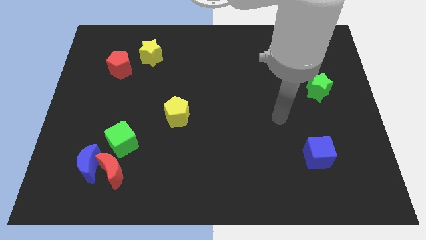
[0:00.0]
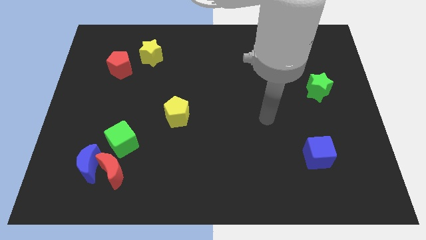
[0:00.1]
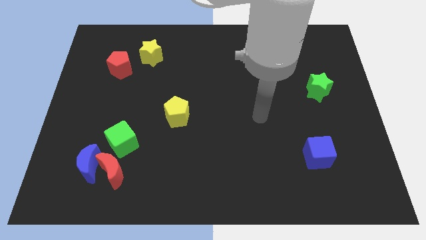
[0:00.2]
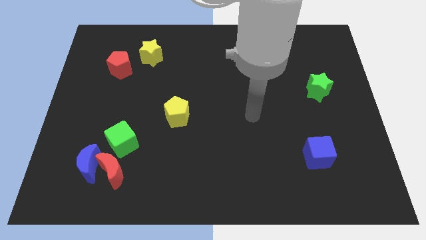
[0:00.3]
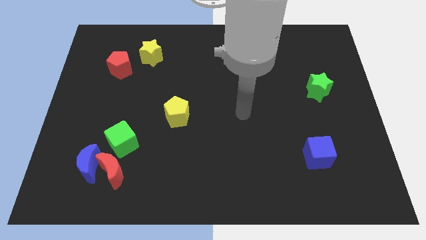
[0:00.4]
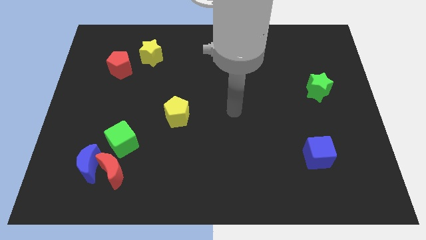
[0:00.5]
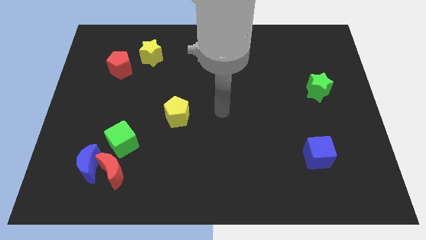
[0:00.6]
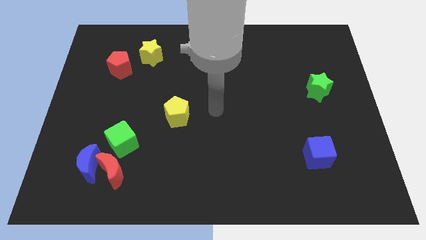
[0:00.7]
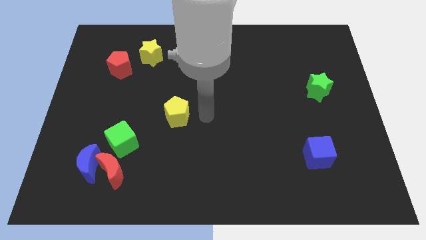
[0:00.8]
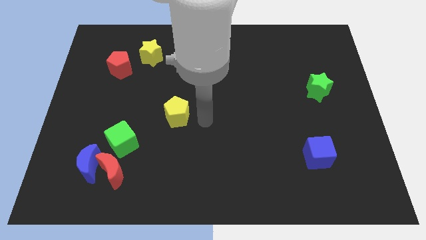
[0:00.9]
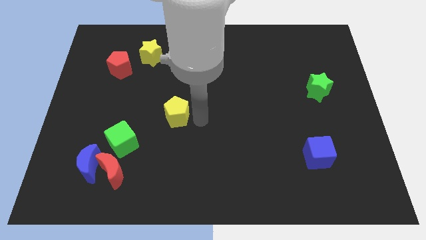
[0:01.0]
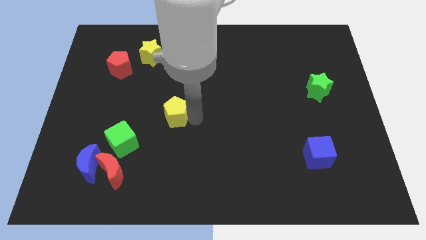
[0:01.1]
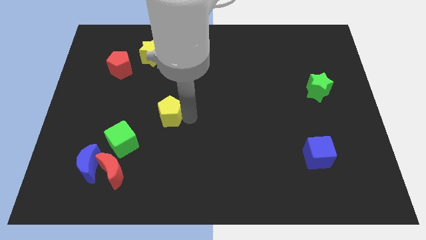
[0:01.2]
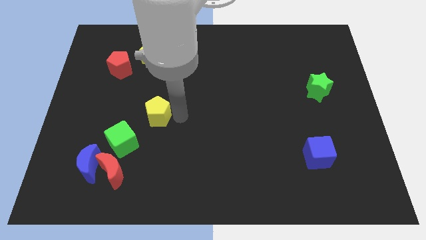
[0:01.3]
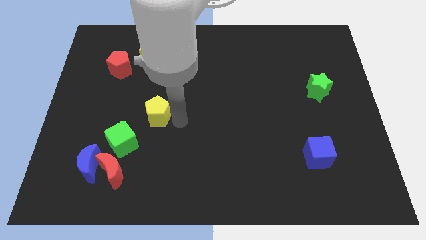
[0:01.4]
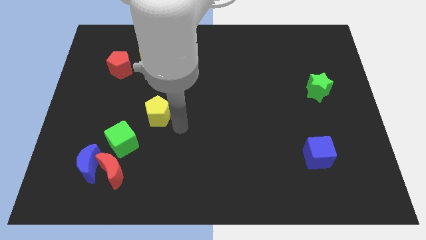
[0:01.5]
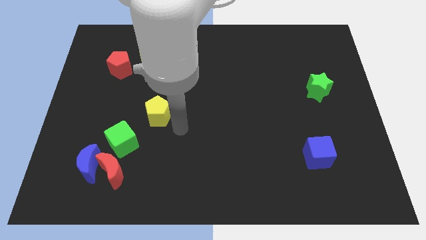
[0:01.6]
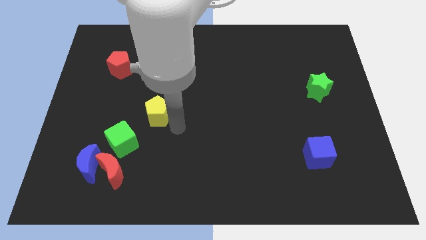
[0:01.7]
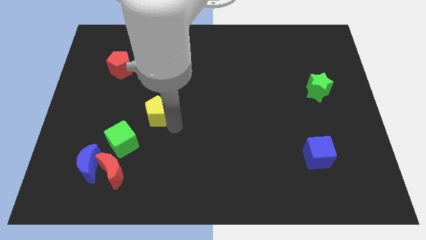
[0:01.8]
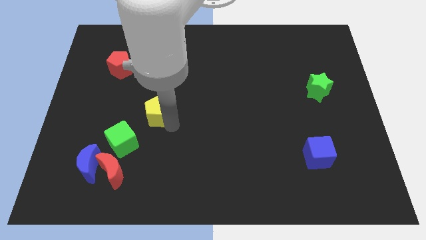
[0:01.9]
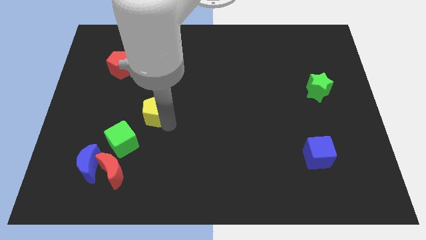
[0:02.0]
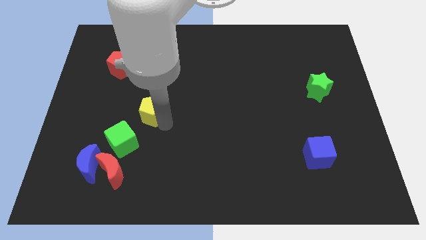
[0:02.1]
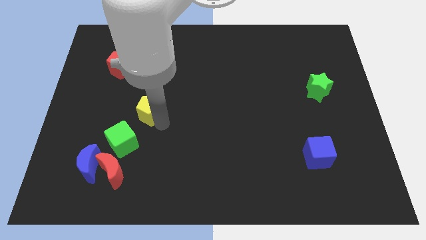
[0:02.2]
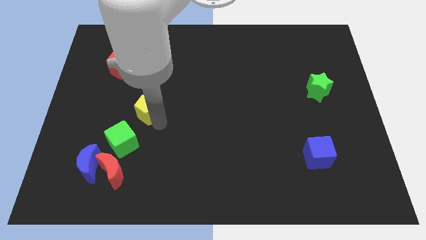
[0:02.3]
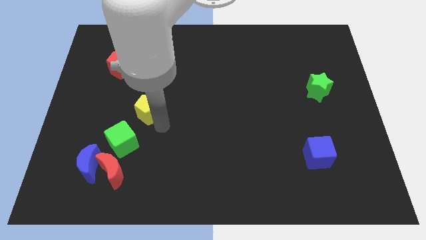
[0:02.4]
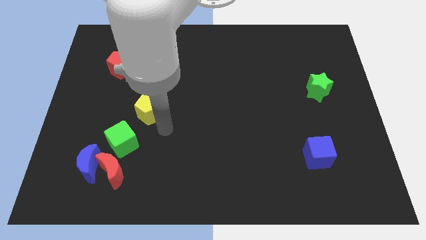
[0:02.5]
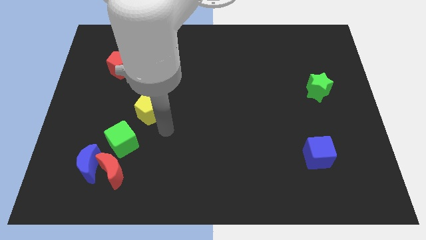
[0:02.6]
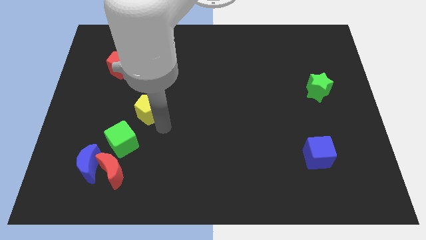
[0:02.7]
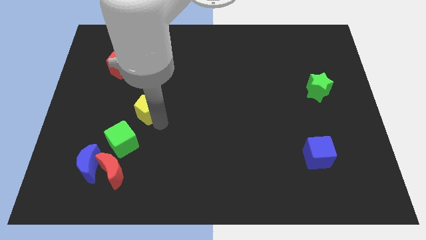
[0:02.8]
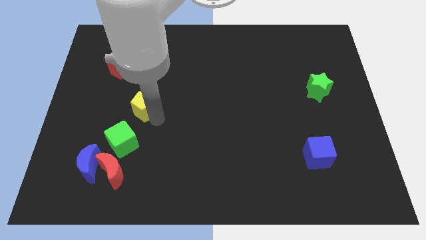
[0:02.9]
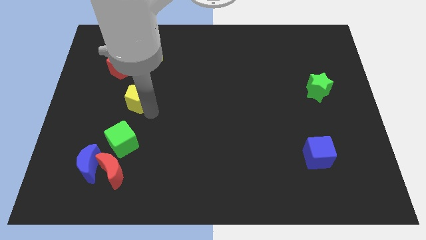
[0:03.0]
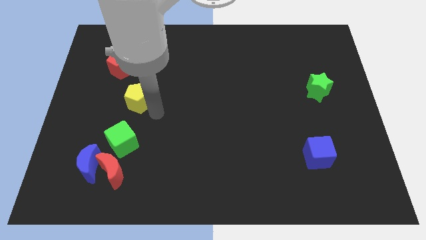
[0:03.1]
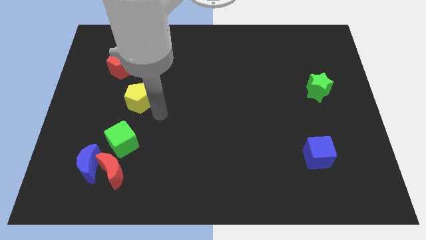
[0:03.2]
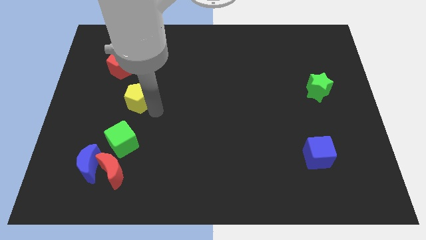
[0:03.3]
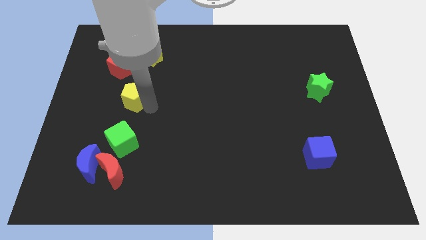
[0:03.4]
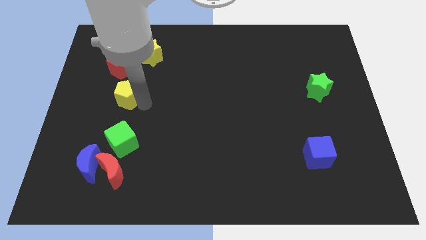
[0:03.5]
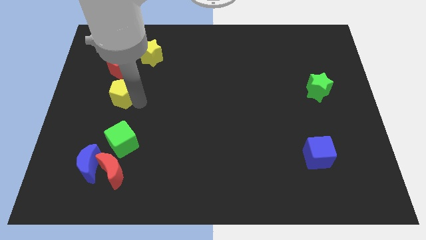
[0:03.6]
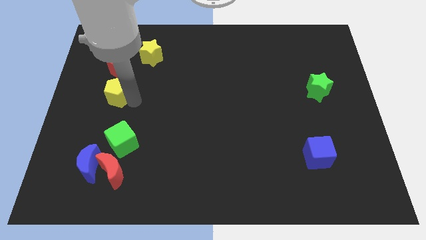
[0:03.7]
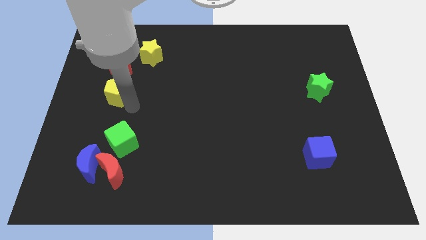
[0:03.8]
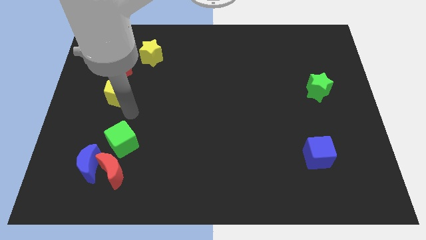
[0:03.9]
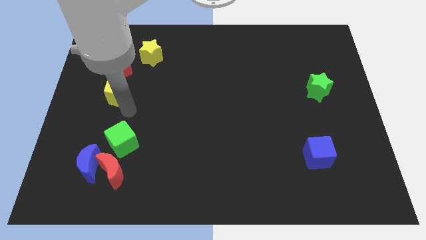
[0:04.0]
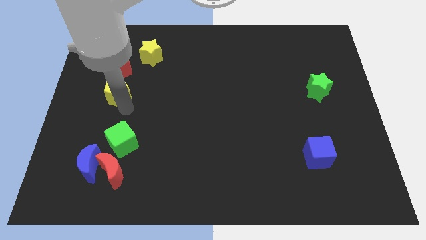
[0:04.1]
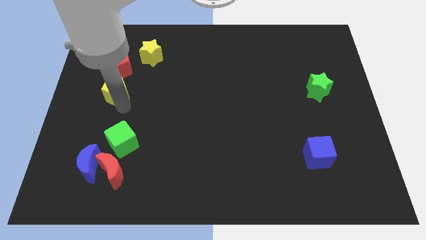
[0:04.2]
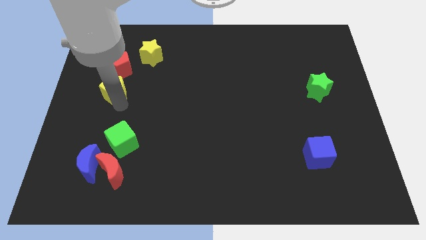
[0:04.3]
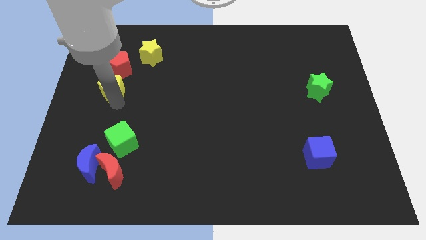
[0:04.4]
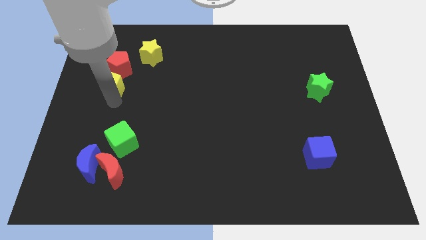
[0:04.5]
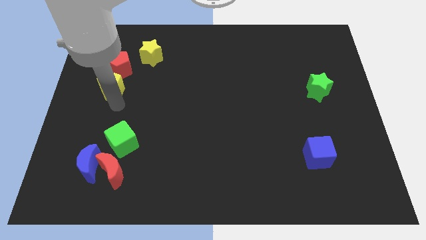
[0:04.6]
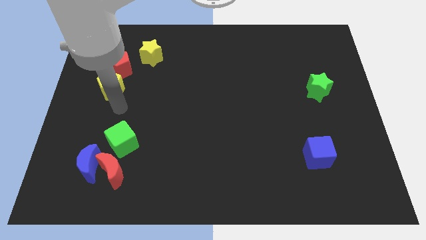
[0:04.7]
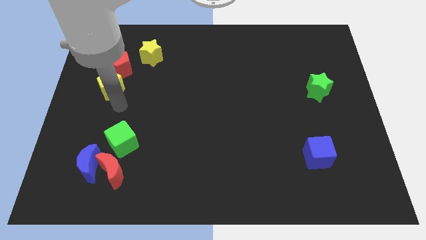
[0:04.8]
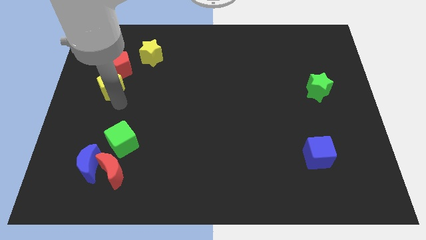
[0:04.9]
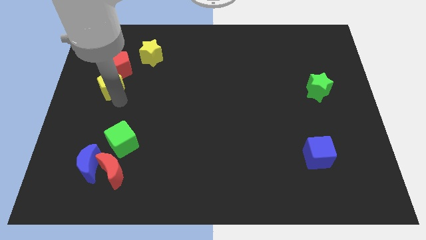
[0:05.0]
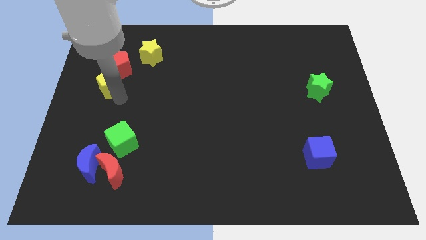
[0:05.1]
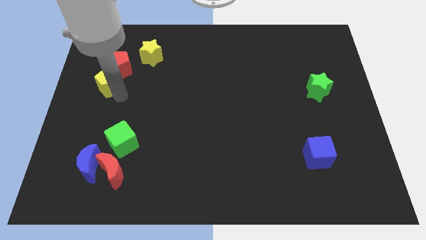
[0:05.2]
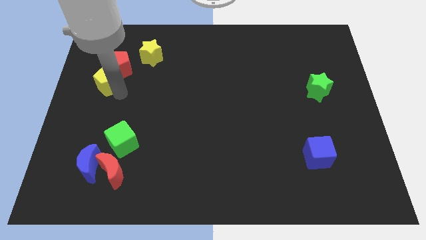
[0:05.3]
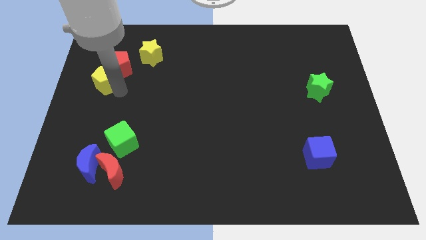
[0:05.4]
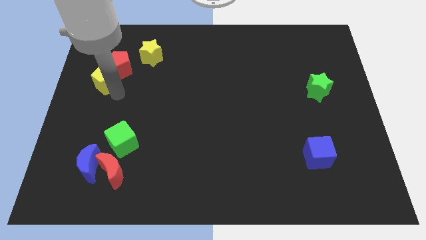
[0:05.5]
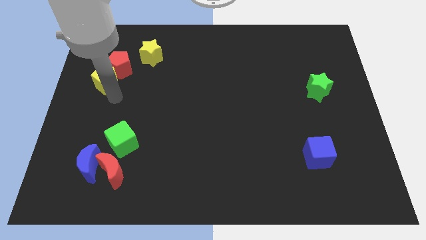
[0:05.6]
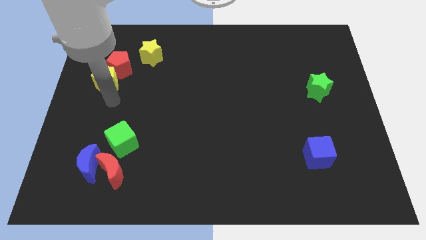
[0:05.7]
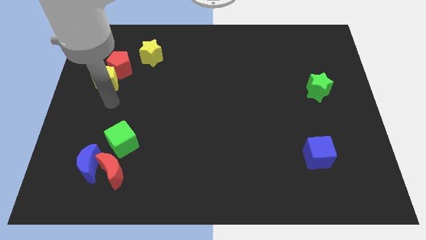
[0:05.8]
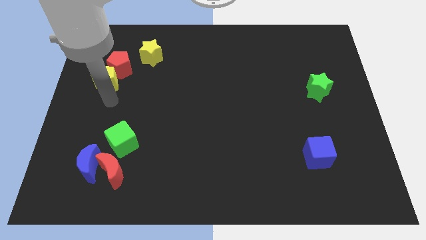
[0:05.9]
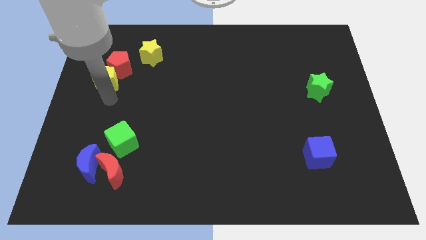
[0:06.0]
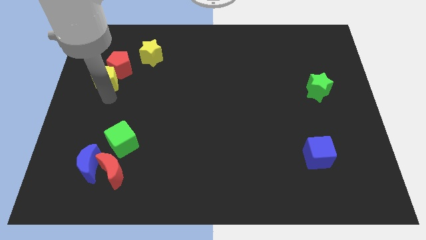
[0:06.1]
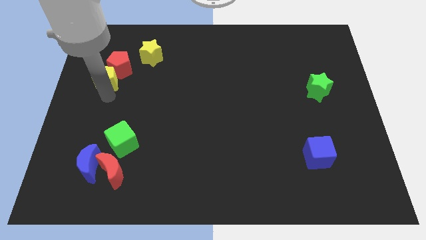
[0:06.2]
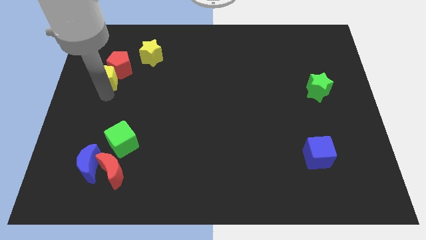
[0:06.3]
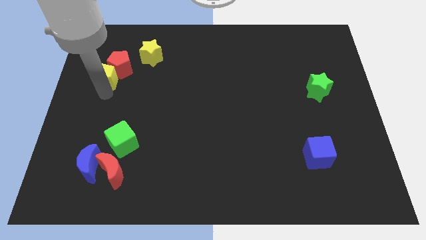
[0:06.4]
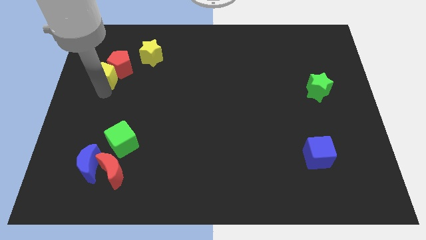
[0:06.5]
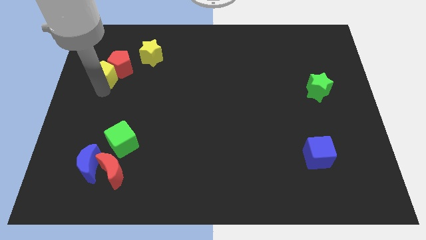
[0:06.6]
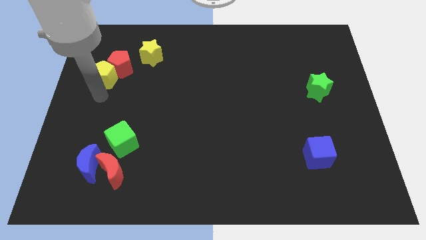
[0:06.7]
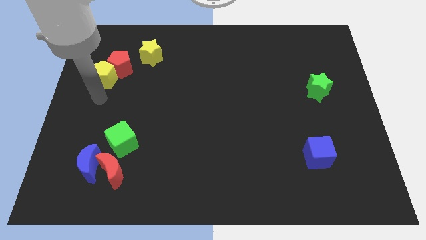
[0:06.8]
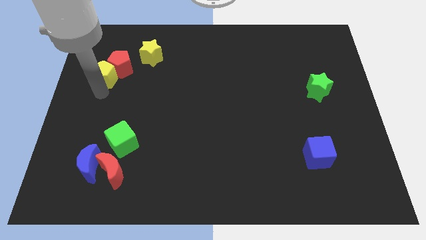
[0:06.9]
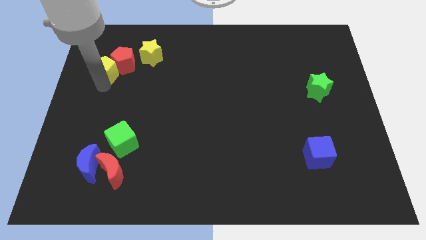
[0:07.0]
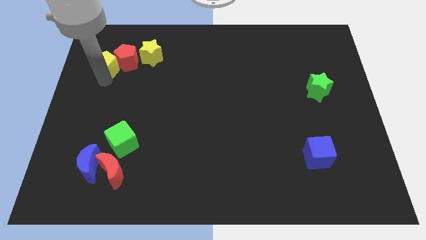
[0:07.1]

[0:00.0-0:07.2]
put the yellow pentagon just left of the yellow star
